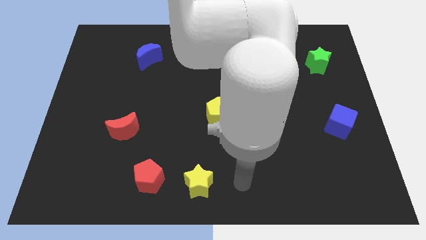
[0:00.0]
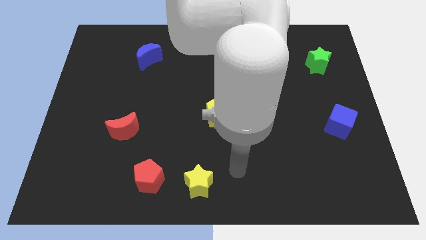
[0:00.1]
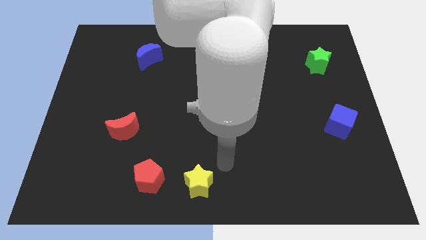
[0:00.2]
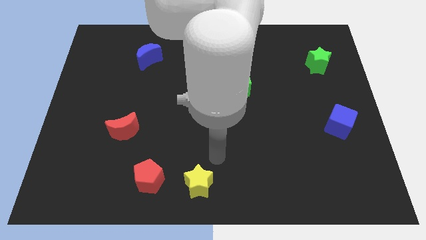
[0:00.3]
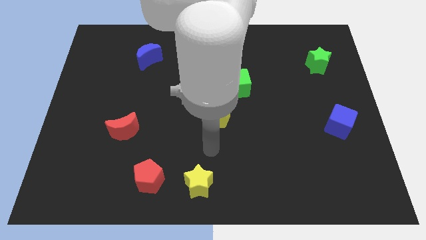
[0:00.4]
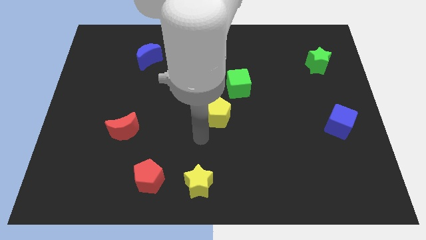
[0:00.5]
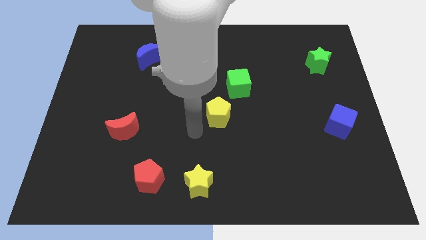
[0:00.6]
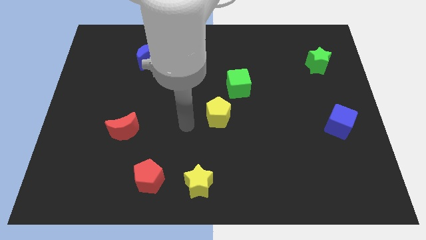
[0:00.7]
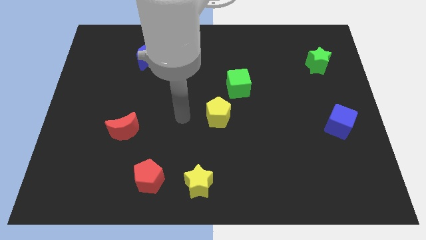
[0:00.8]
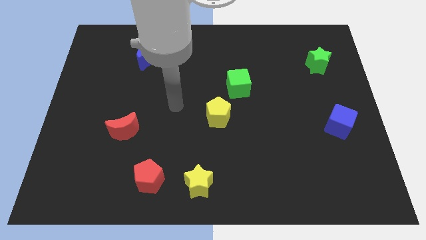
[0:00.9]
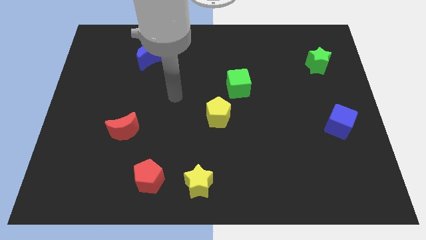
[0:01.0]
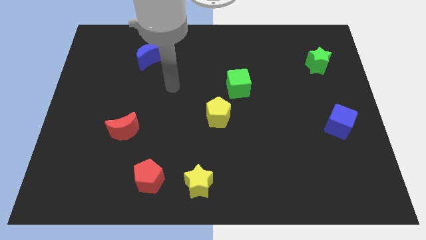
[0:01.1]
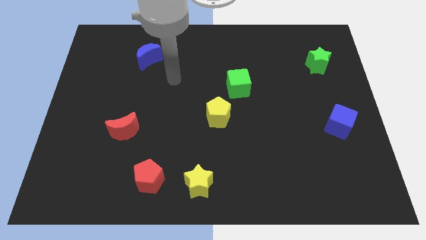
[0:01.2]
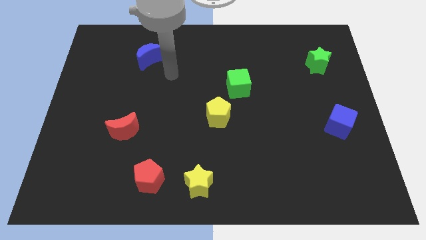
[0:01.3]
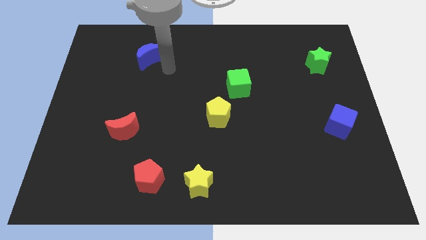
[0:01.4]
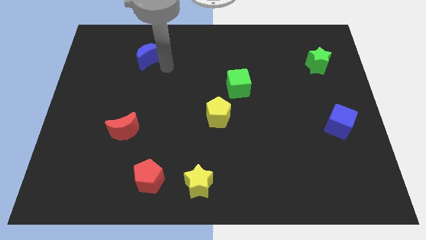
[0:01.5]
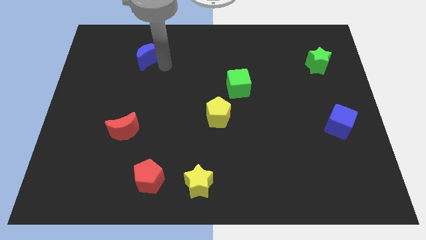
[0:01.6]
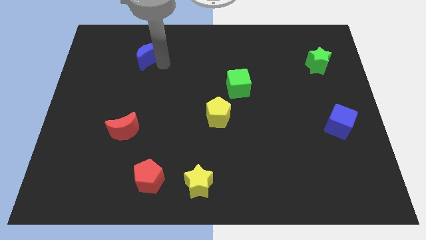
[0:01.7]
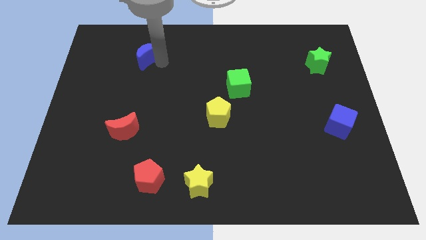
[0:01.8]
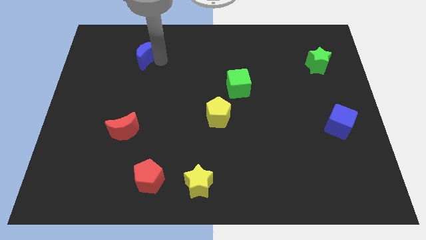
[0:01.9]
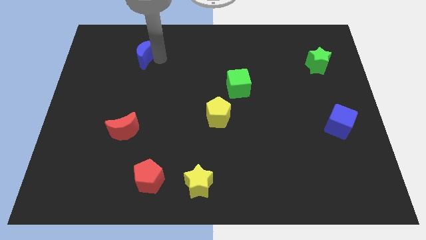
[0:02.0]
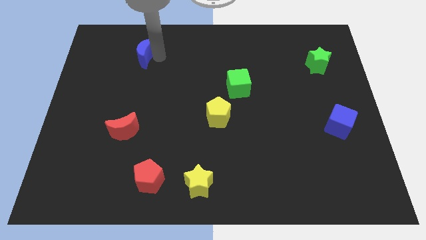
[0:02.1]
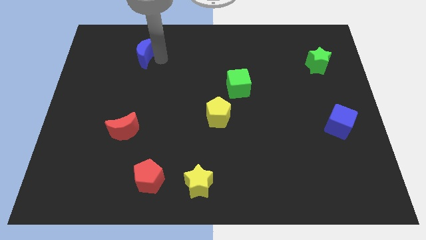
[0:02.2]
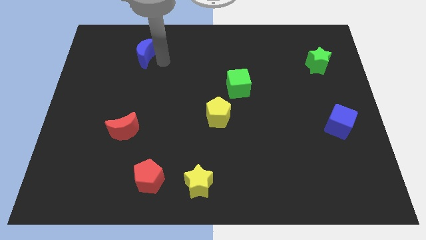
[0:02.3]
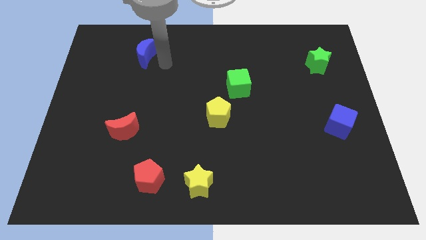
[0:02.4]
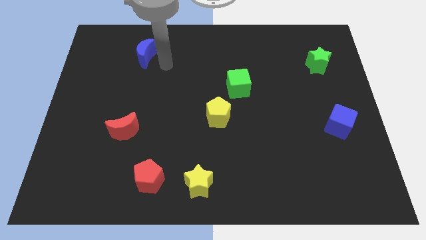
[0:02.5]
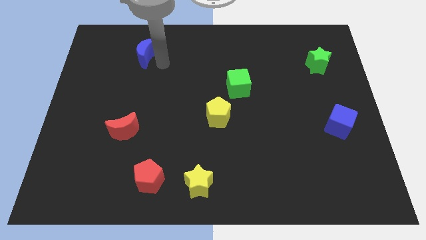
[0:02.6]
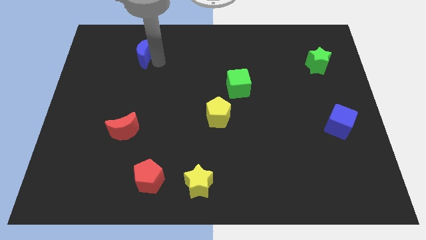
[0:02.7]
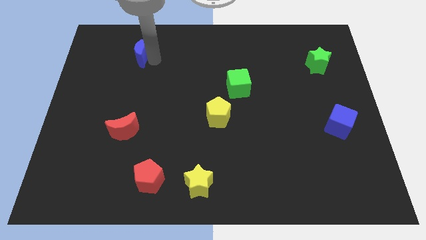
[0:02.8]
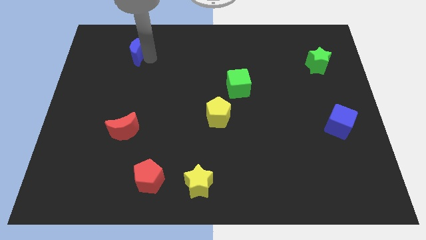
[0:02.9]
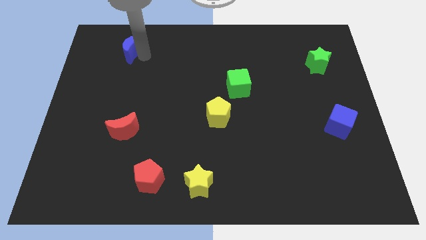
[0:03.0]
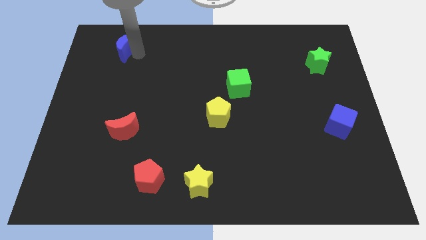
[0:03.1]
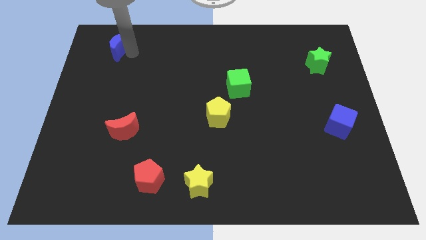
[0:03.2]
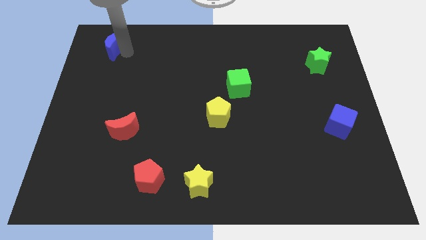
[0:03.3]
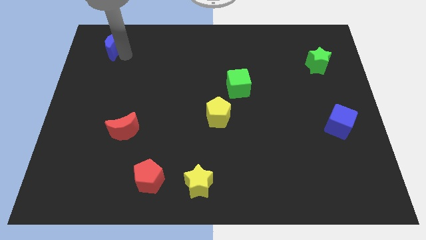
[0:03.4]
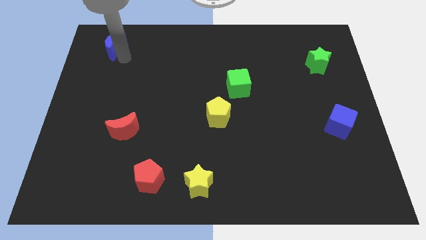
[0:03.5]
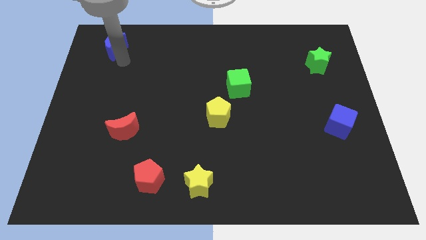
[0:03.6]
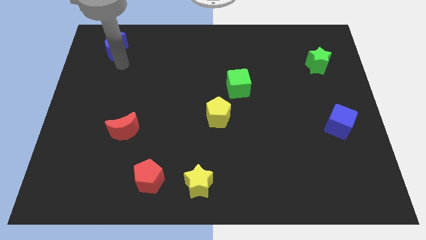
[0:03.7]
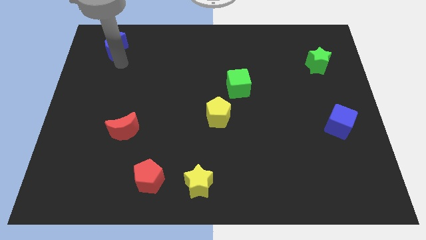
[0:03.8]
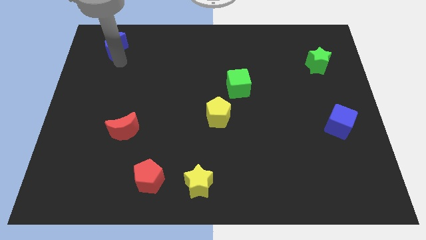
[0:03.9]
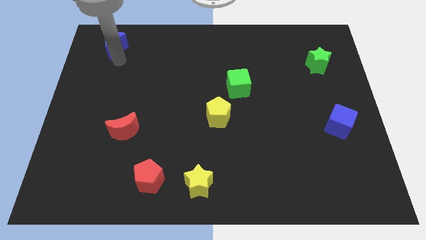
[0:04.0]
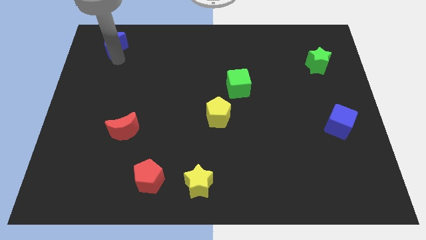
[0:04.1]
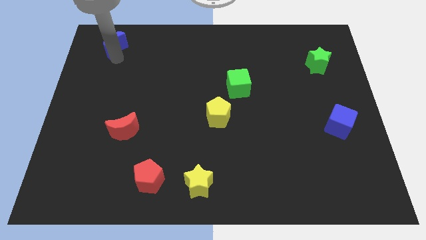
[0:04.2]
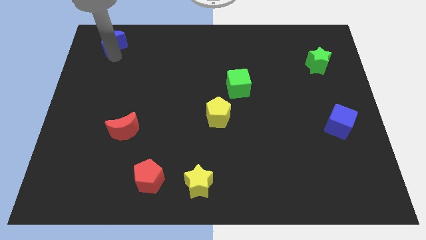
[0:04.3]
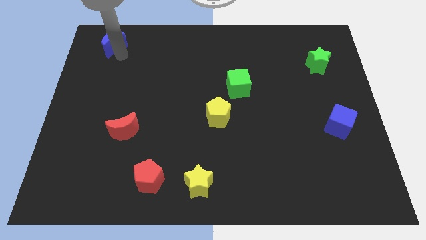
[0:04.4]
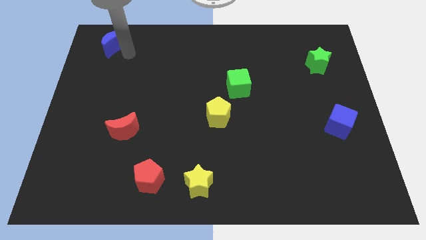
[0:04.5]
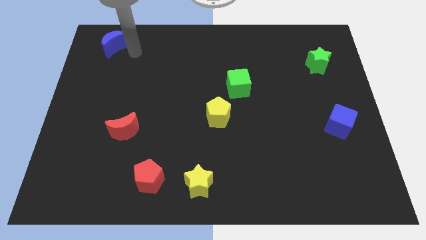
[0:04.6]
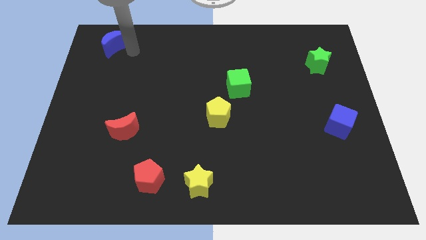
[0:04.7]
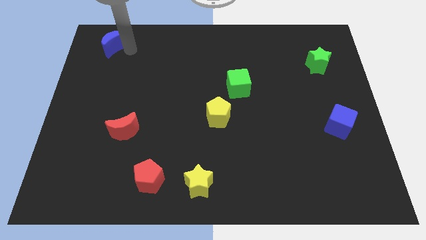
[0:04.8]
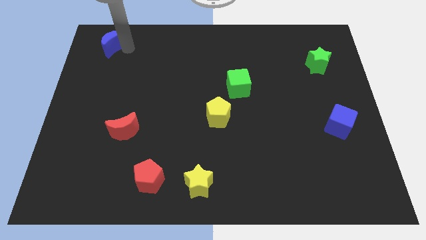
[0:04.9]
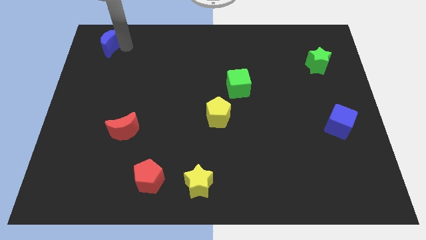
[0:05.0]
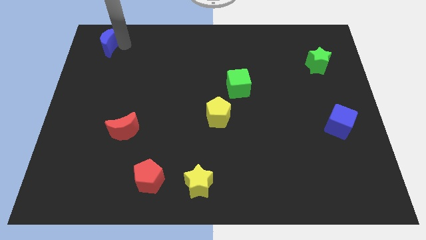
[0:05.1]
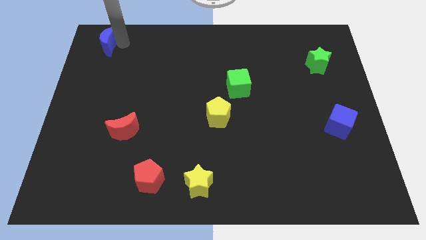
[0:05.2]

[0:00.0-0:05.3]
put the blue moon to the upper left corner

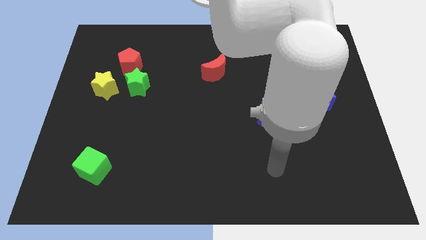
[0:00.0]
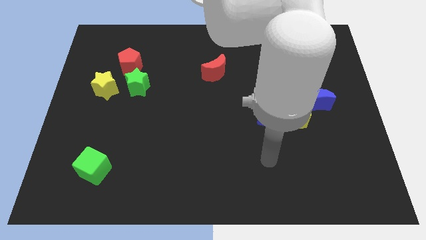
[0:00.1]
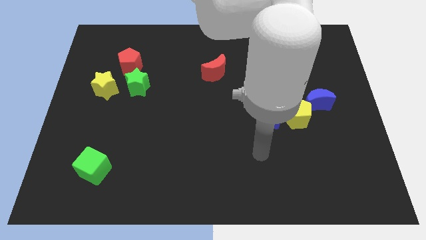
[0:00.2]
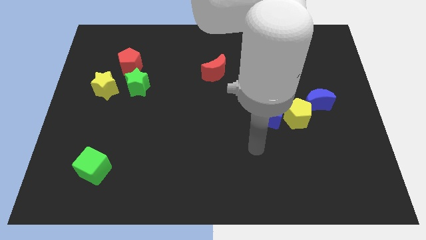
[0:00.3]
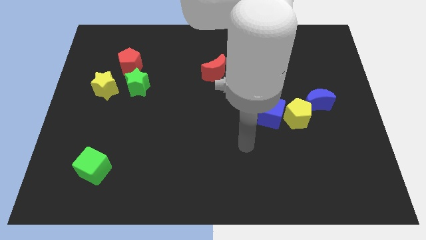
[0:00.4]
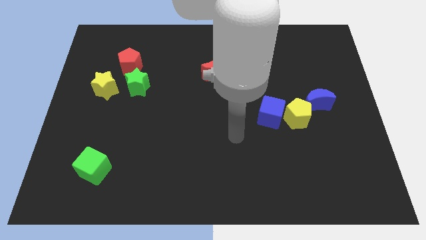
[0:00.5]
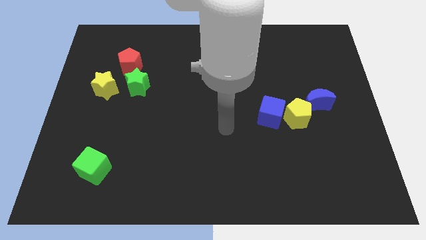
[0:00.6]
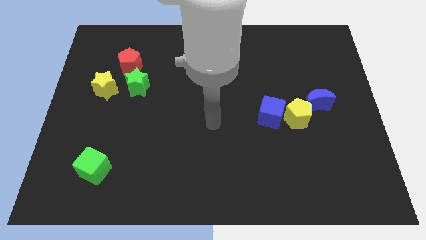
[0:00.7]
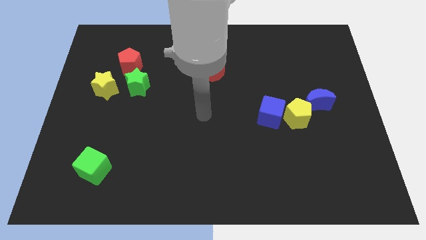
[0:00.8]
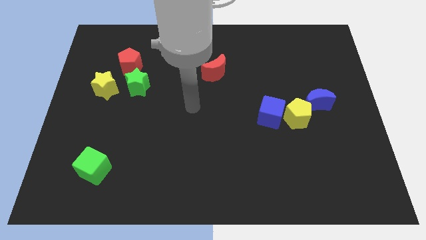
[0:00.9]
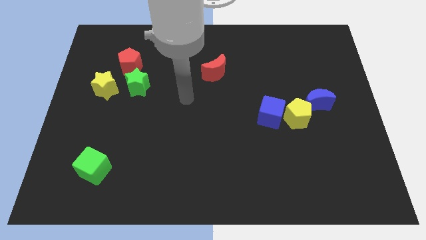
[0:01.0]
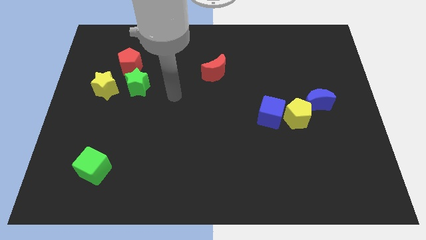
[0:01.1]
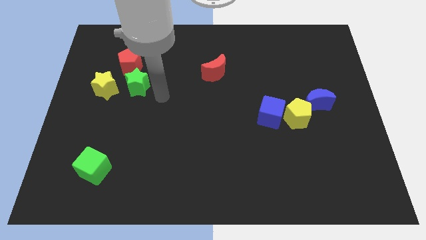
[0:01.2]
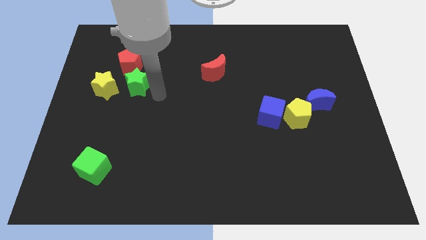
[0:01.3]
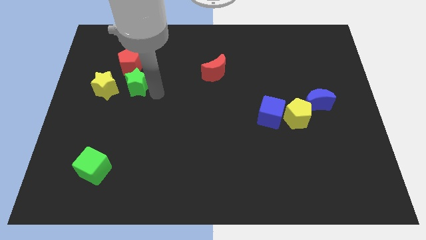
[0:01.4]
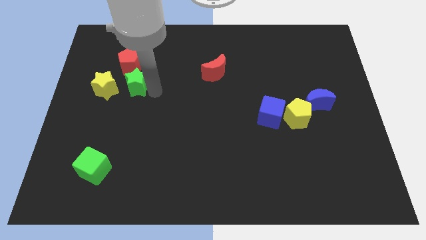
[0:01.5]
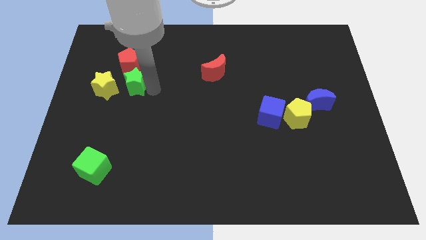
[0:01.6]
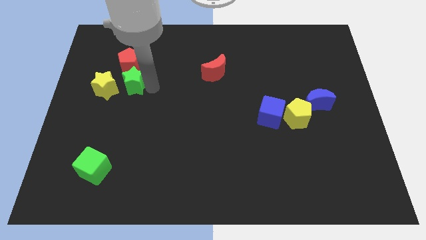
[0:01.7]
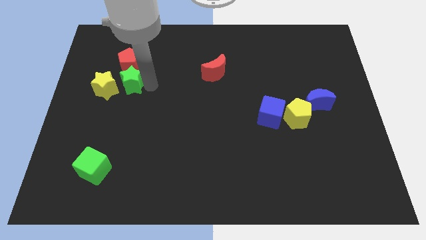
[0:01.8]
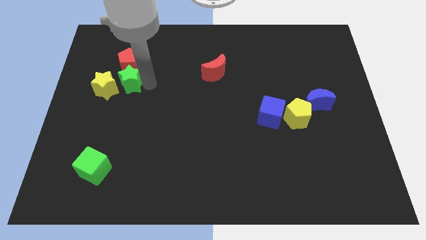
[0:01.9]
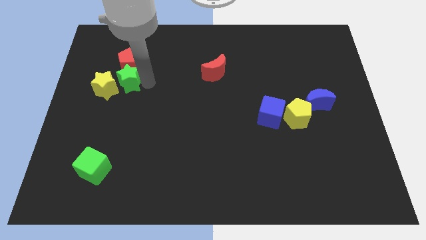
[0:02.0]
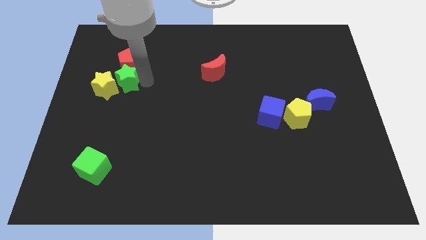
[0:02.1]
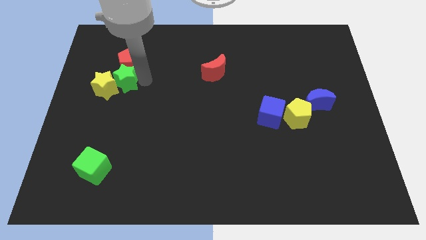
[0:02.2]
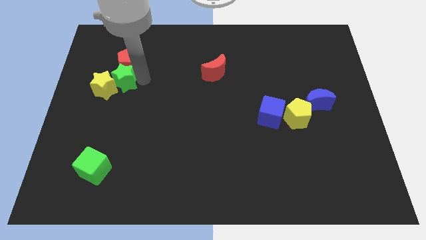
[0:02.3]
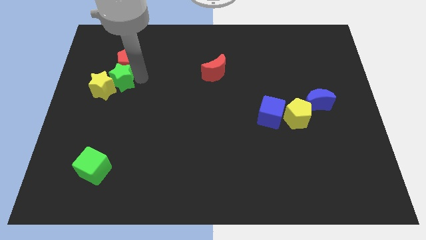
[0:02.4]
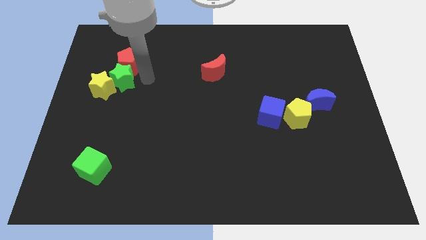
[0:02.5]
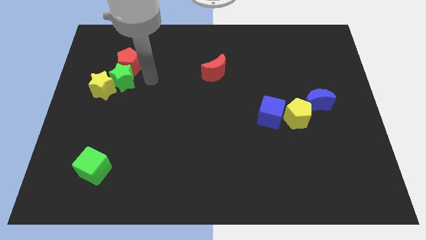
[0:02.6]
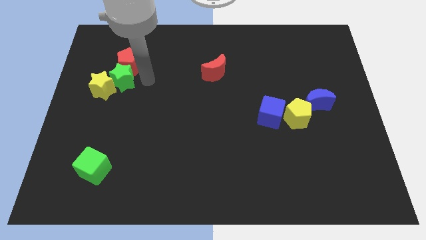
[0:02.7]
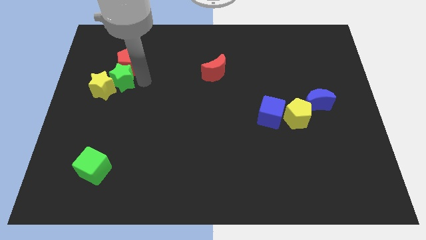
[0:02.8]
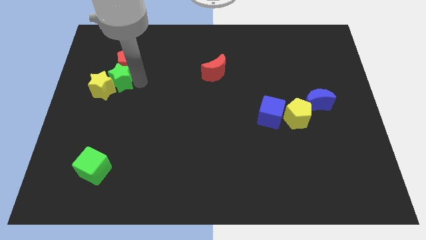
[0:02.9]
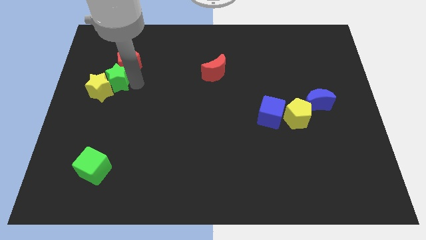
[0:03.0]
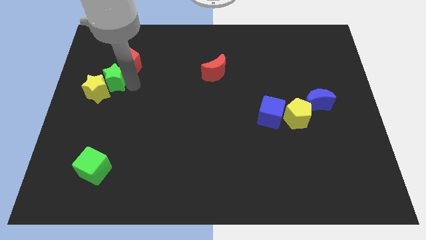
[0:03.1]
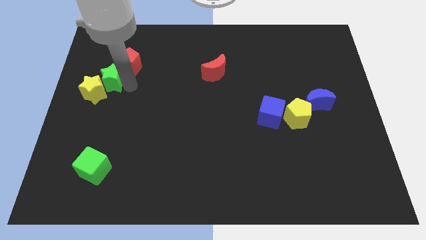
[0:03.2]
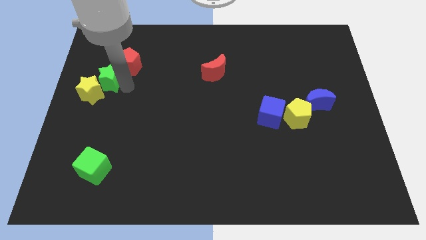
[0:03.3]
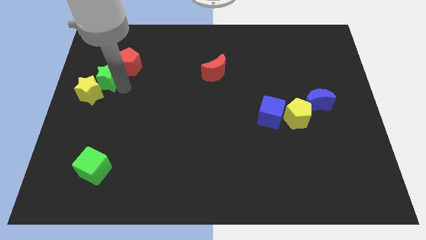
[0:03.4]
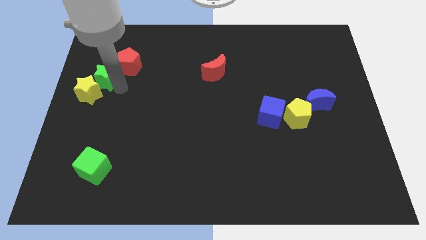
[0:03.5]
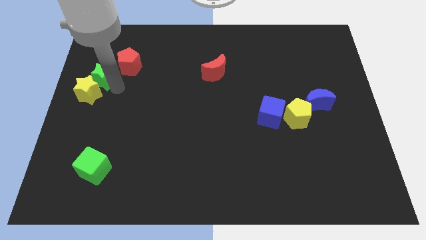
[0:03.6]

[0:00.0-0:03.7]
put the green star to the center left
